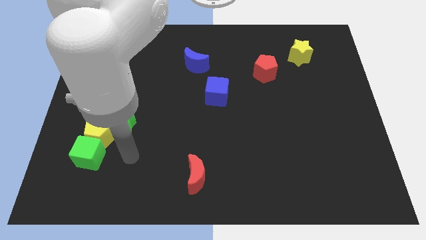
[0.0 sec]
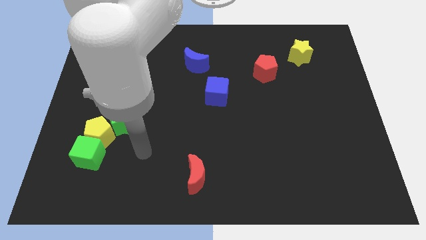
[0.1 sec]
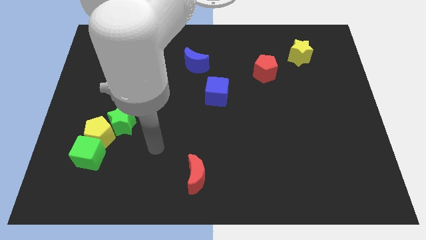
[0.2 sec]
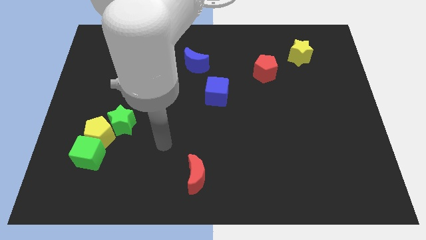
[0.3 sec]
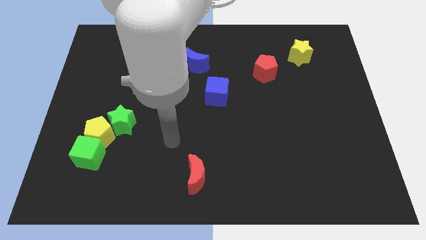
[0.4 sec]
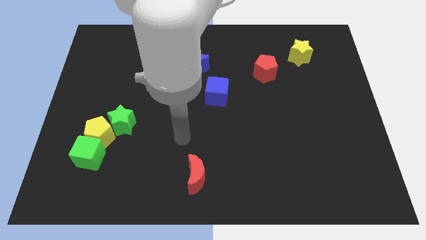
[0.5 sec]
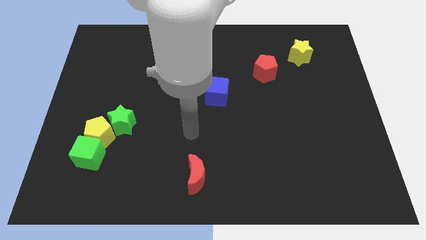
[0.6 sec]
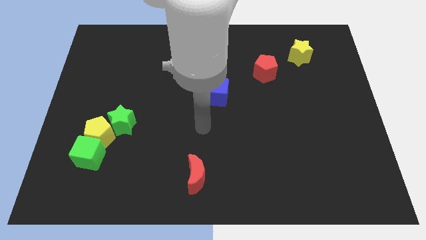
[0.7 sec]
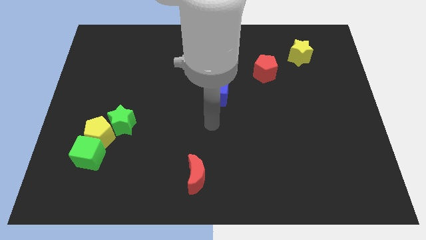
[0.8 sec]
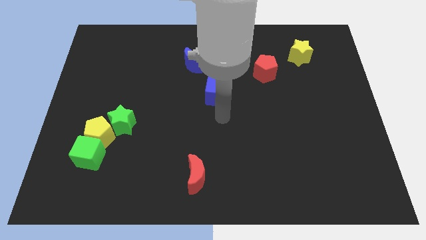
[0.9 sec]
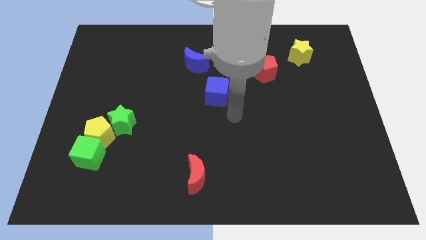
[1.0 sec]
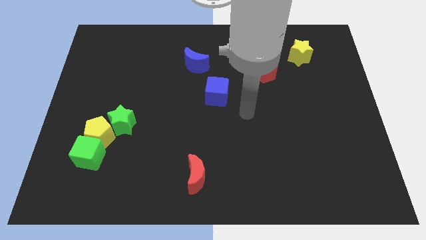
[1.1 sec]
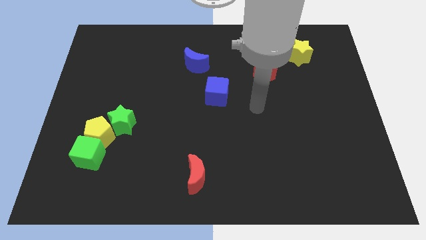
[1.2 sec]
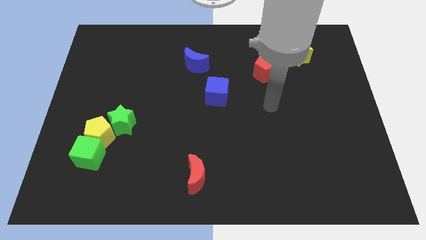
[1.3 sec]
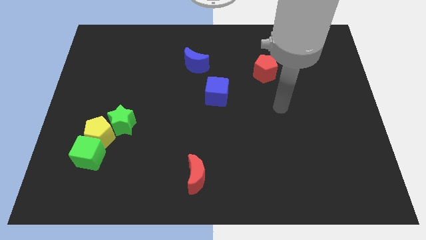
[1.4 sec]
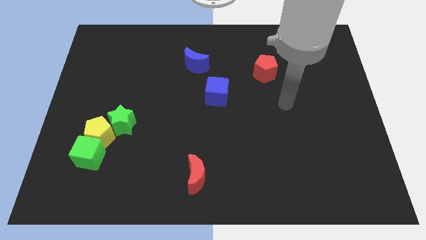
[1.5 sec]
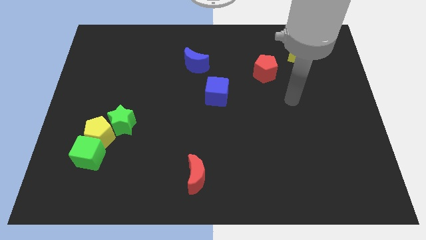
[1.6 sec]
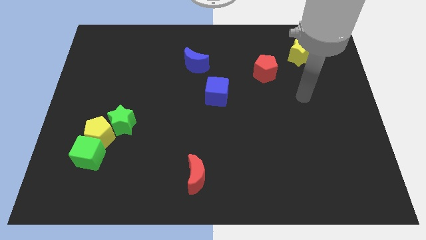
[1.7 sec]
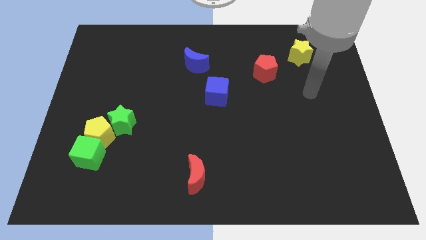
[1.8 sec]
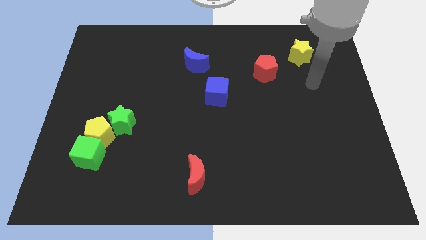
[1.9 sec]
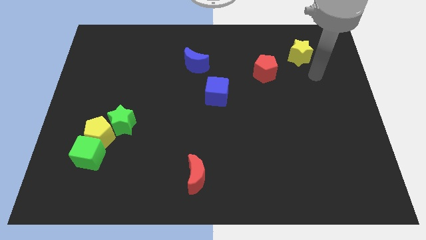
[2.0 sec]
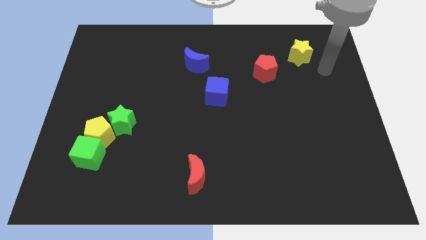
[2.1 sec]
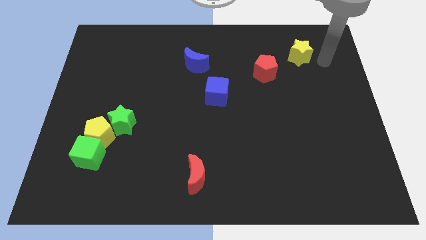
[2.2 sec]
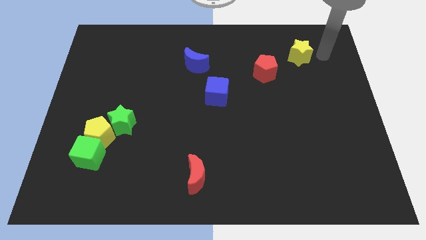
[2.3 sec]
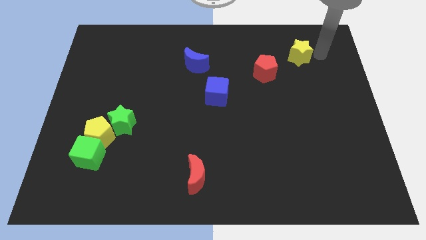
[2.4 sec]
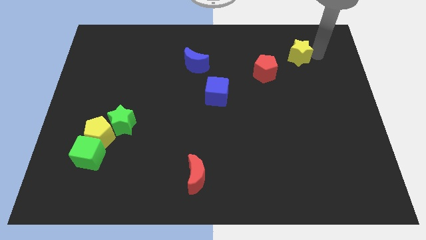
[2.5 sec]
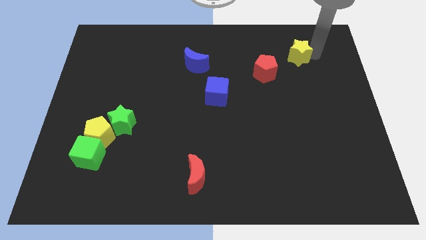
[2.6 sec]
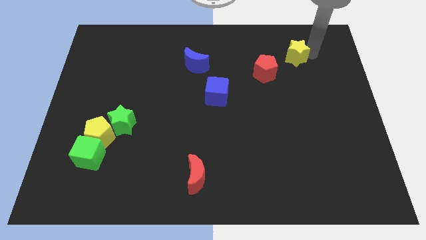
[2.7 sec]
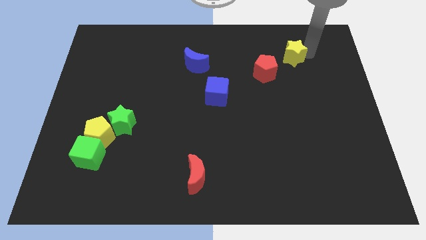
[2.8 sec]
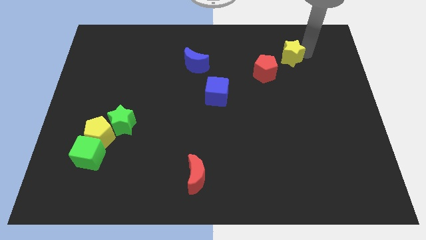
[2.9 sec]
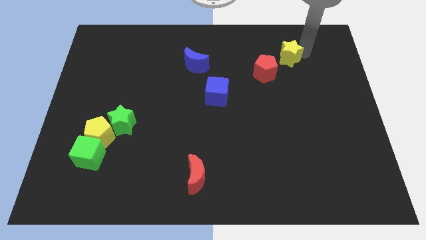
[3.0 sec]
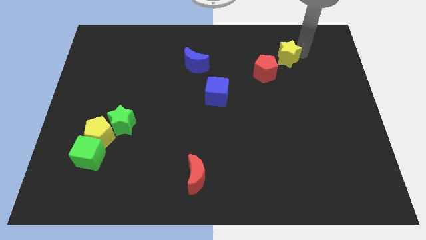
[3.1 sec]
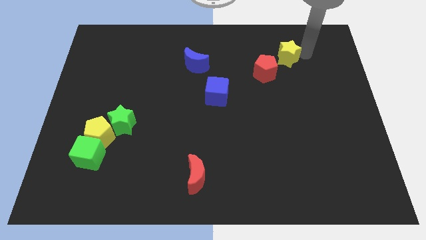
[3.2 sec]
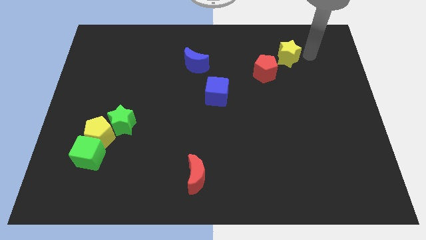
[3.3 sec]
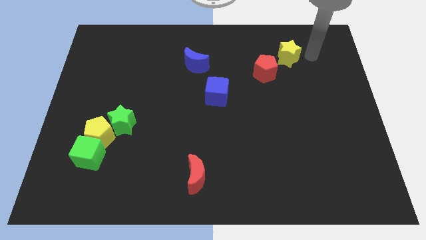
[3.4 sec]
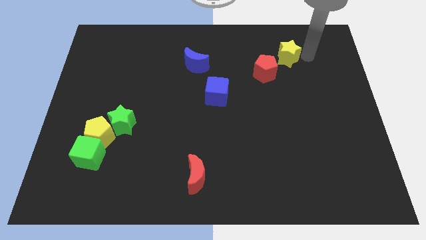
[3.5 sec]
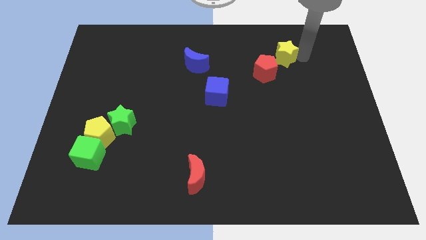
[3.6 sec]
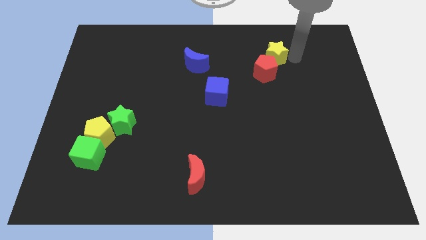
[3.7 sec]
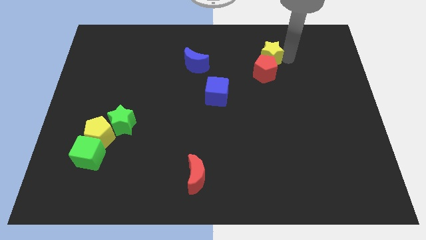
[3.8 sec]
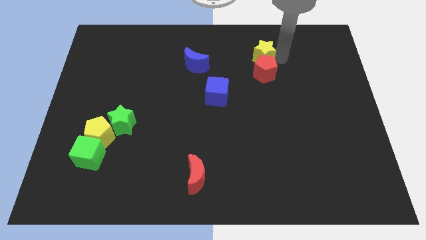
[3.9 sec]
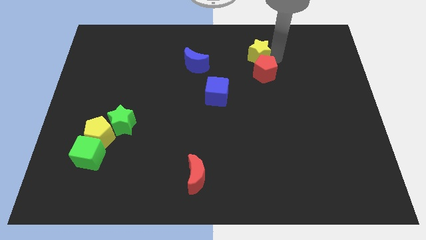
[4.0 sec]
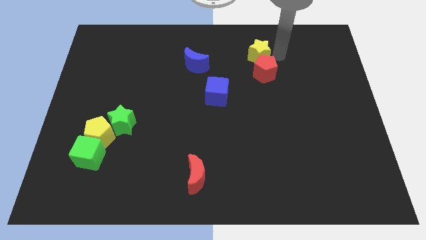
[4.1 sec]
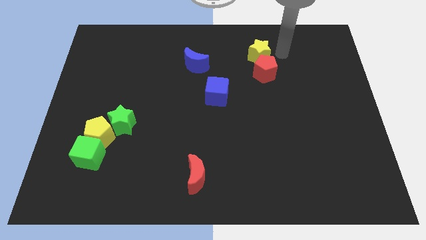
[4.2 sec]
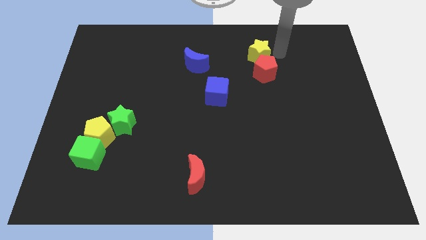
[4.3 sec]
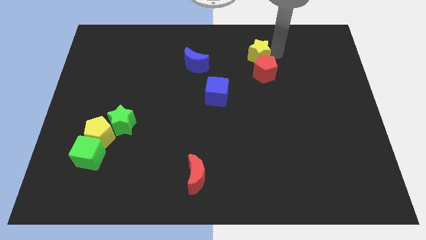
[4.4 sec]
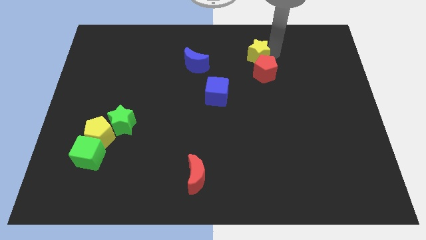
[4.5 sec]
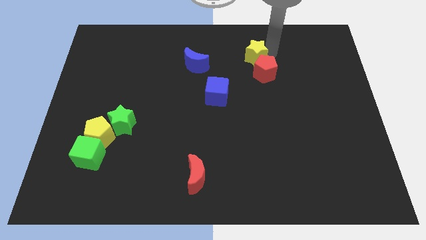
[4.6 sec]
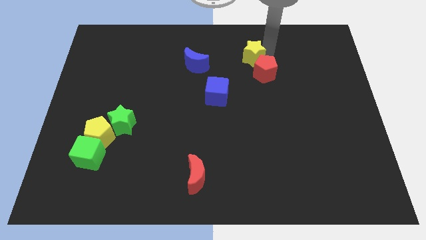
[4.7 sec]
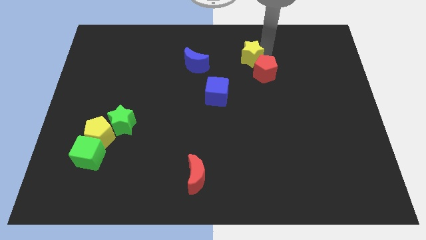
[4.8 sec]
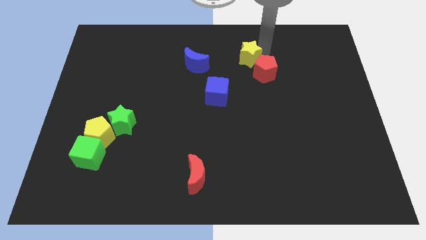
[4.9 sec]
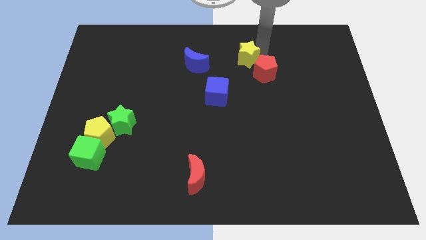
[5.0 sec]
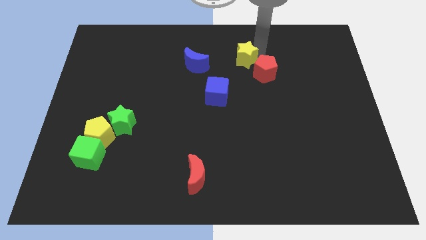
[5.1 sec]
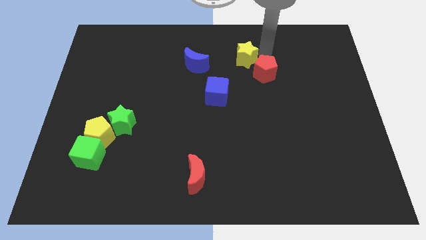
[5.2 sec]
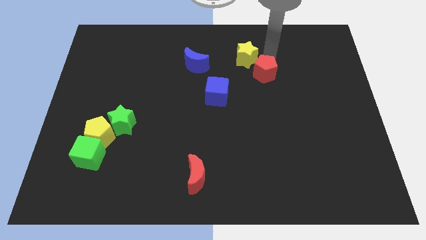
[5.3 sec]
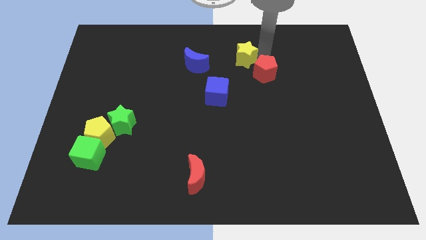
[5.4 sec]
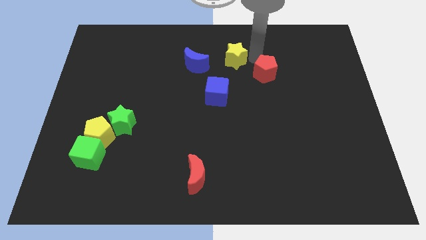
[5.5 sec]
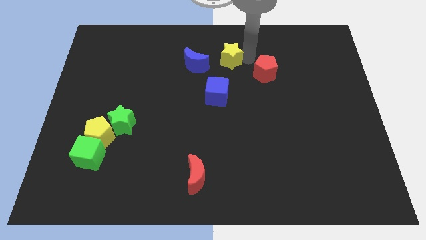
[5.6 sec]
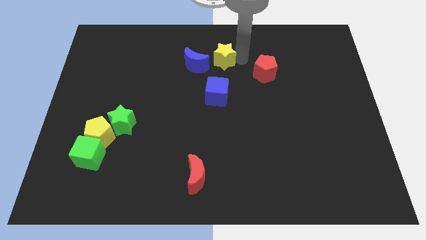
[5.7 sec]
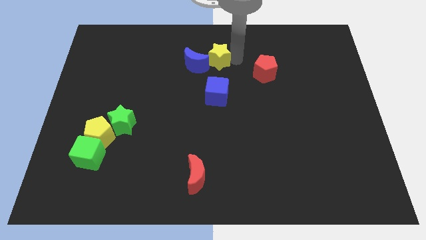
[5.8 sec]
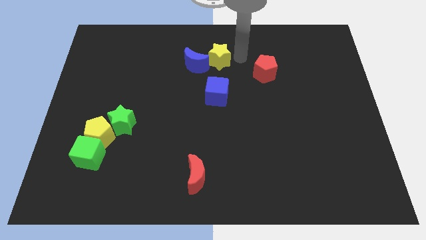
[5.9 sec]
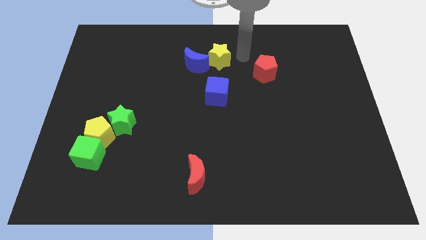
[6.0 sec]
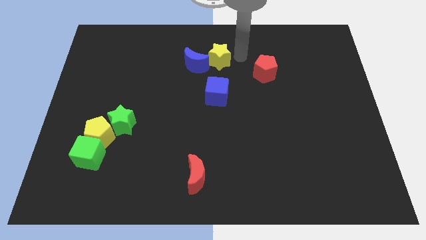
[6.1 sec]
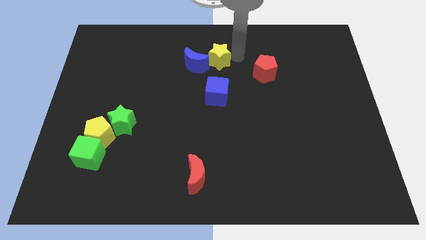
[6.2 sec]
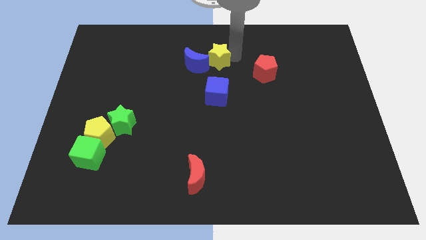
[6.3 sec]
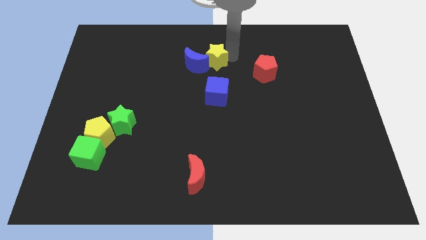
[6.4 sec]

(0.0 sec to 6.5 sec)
push the yellow star to the blue moon
